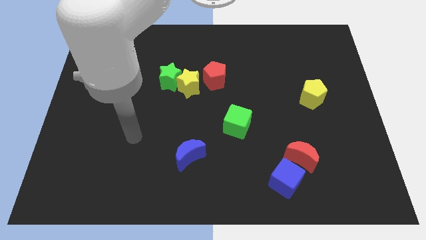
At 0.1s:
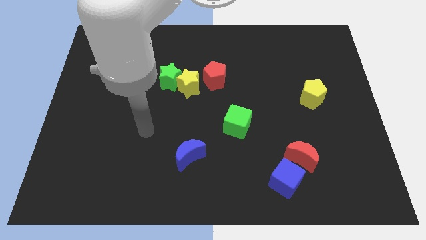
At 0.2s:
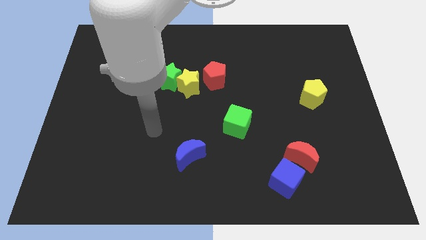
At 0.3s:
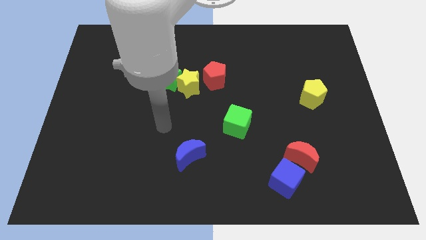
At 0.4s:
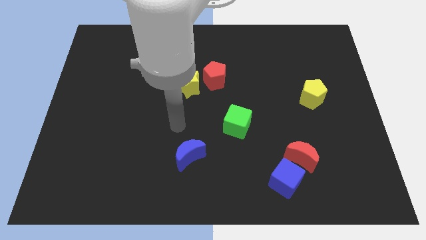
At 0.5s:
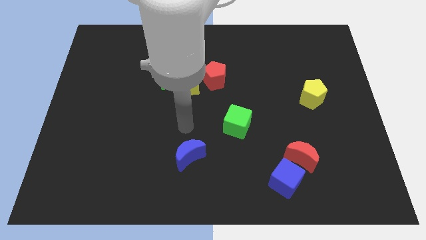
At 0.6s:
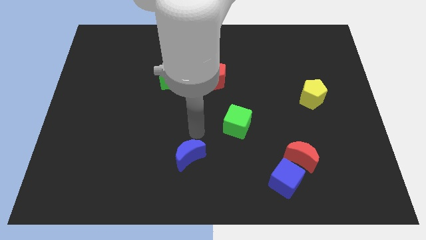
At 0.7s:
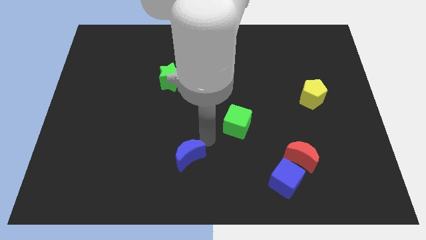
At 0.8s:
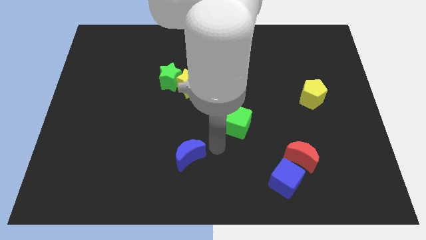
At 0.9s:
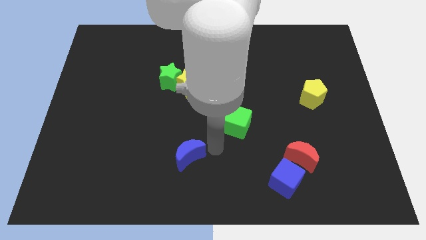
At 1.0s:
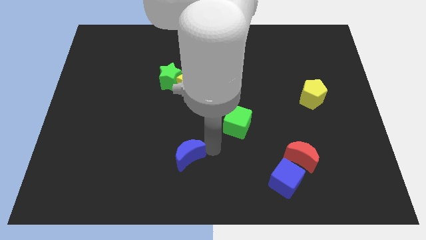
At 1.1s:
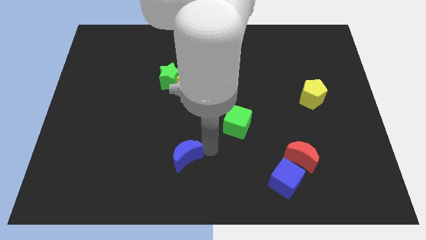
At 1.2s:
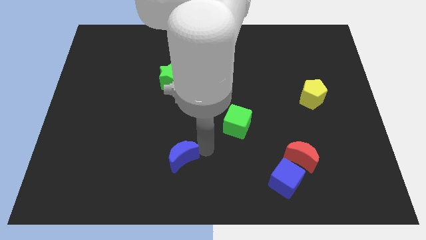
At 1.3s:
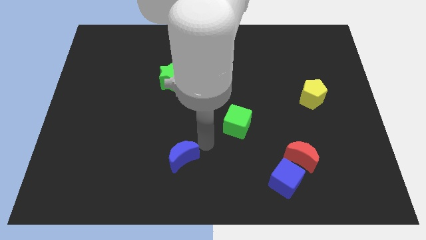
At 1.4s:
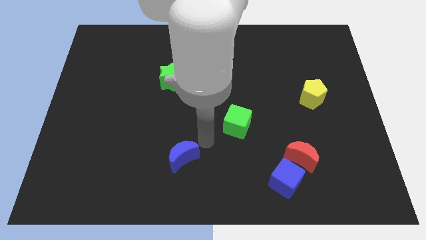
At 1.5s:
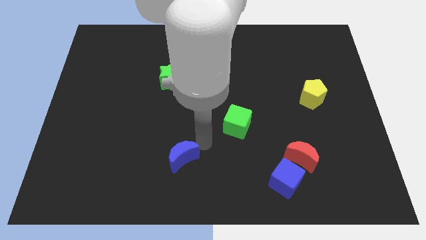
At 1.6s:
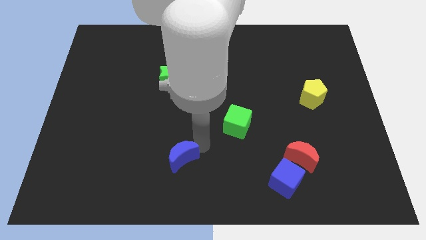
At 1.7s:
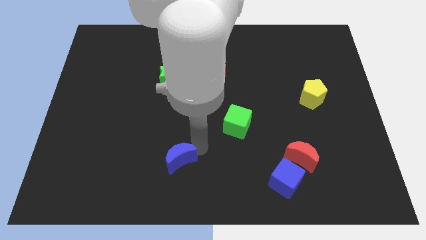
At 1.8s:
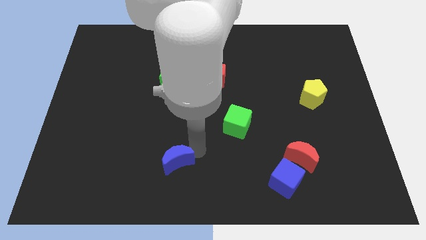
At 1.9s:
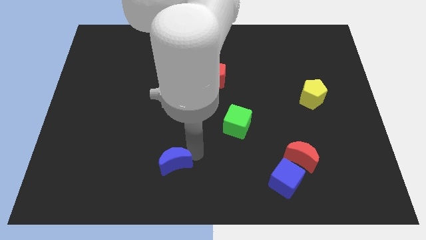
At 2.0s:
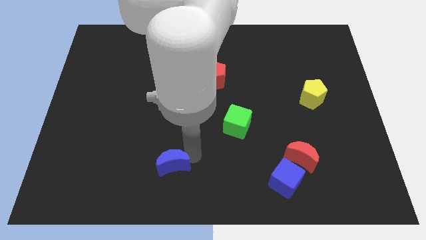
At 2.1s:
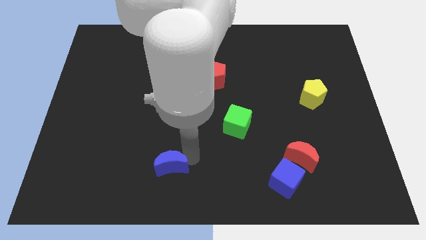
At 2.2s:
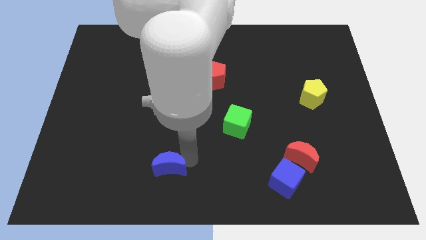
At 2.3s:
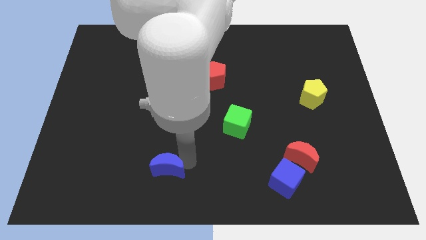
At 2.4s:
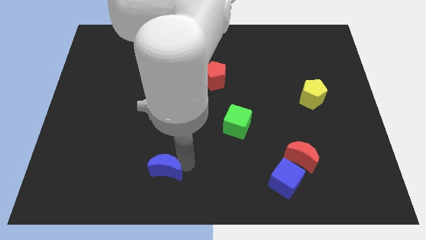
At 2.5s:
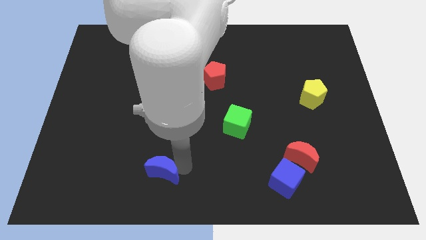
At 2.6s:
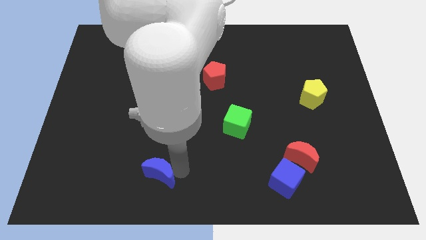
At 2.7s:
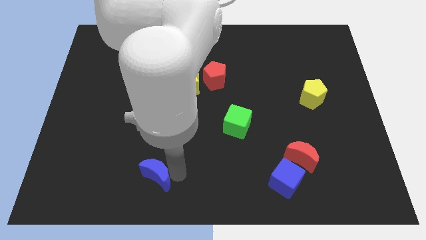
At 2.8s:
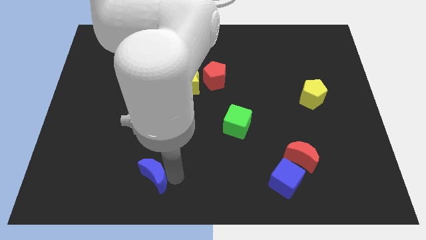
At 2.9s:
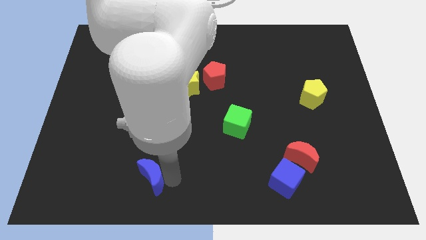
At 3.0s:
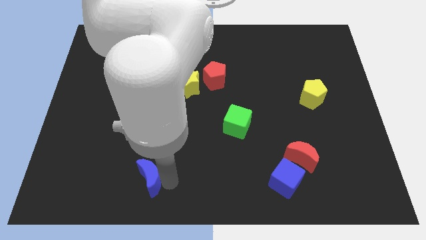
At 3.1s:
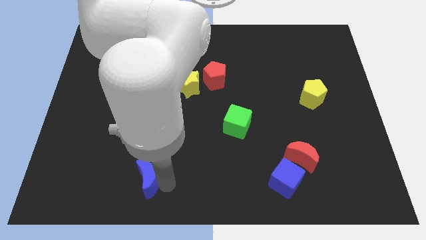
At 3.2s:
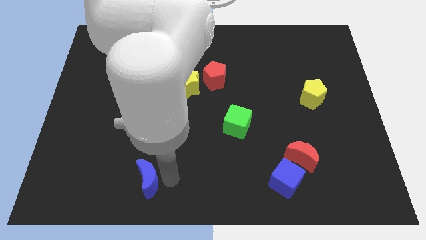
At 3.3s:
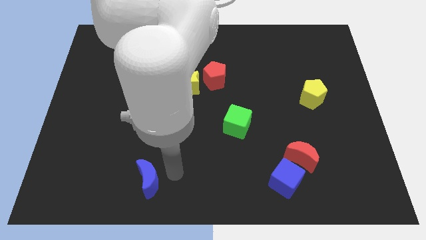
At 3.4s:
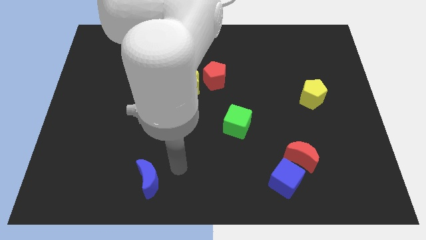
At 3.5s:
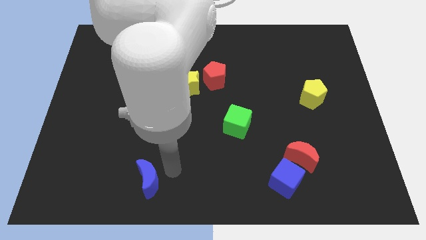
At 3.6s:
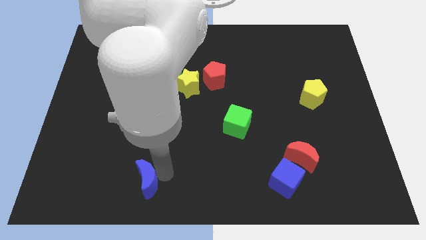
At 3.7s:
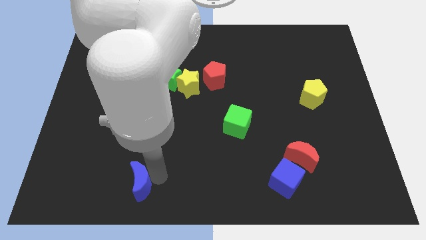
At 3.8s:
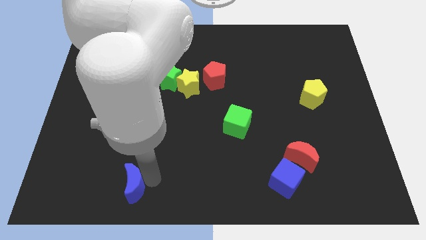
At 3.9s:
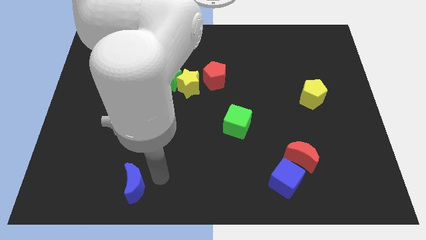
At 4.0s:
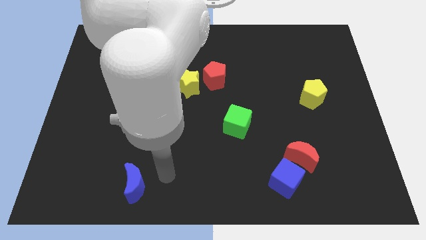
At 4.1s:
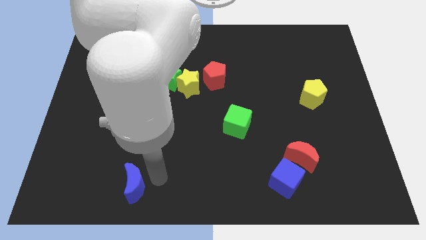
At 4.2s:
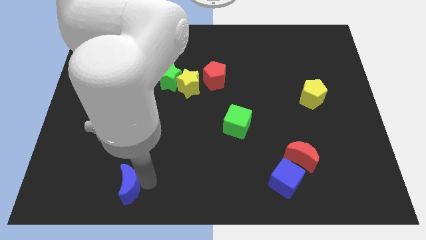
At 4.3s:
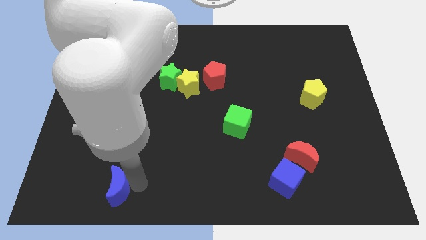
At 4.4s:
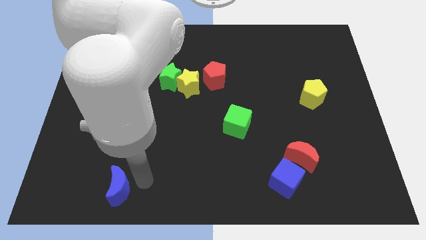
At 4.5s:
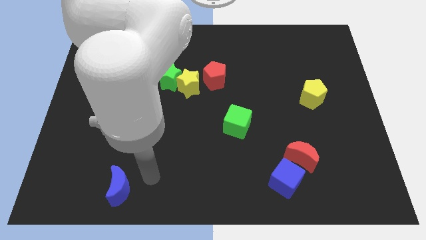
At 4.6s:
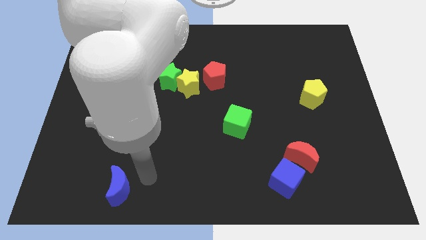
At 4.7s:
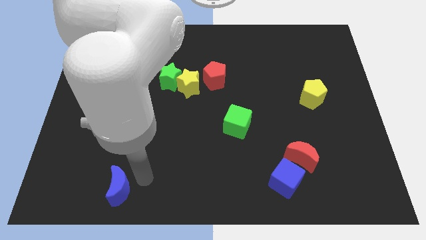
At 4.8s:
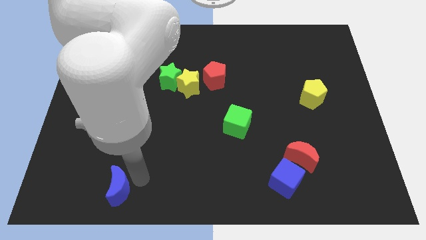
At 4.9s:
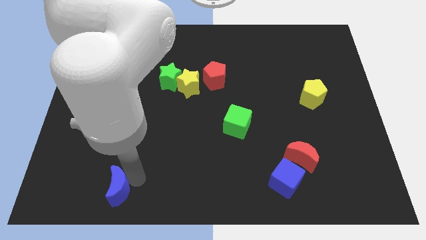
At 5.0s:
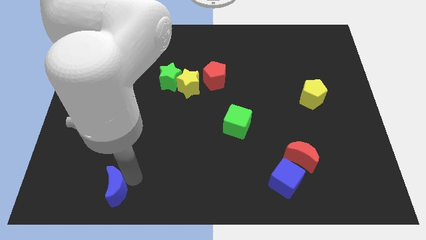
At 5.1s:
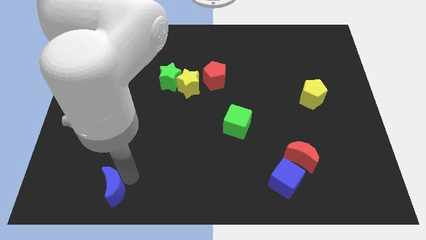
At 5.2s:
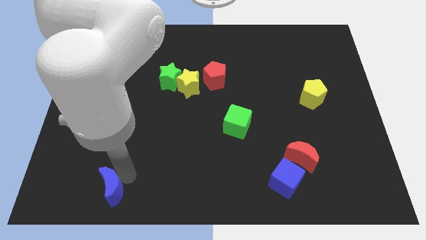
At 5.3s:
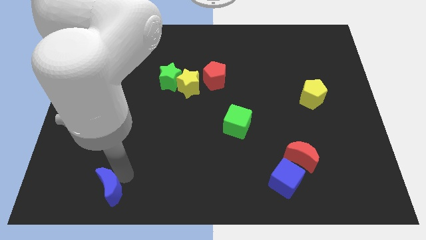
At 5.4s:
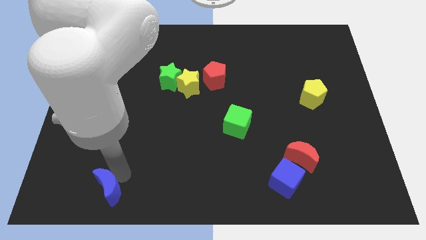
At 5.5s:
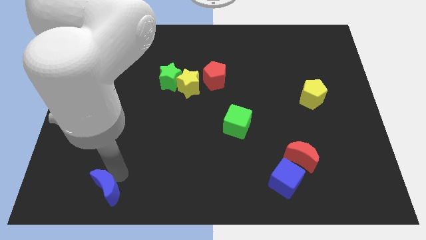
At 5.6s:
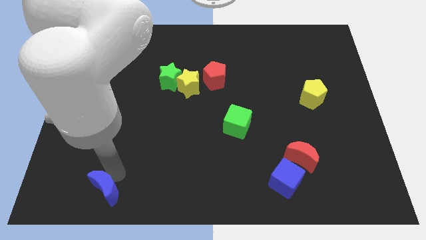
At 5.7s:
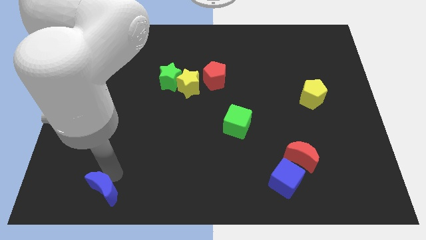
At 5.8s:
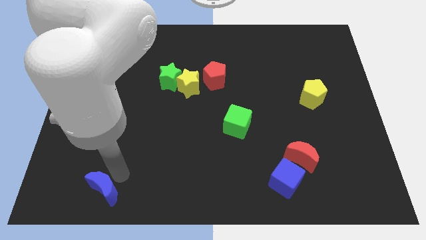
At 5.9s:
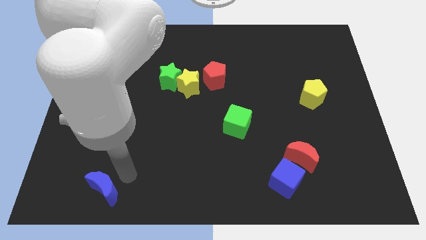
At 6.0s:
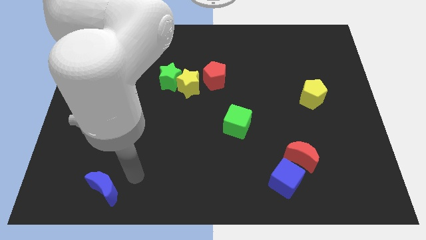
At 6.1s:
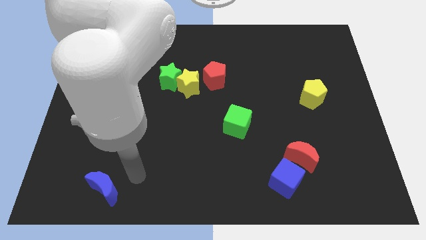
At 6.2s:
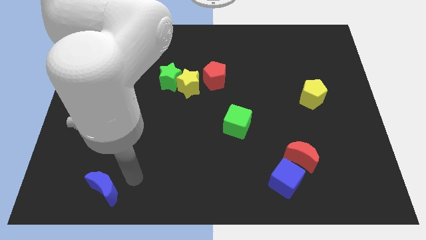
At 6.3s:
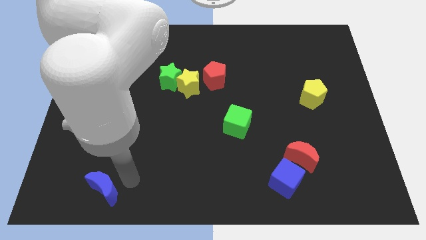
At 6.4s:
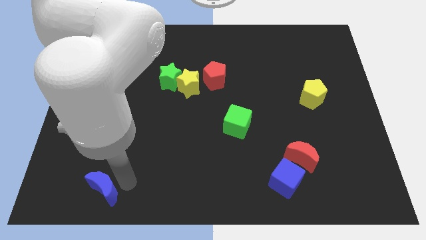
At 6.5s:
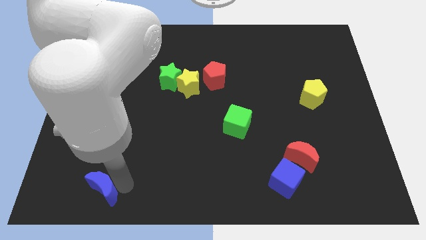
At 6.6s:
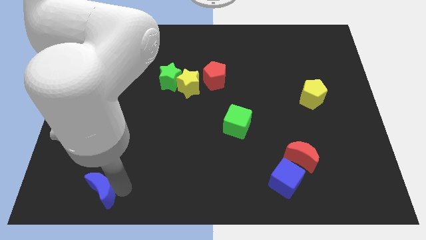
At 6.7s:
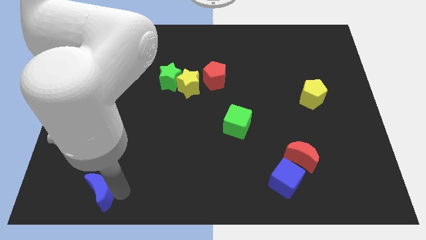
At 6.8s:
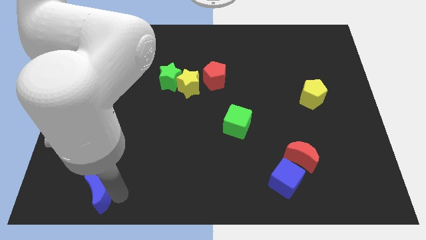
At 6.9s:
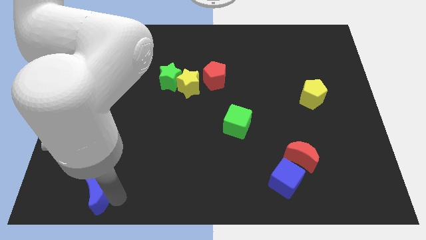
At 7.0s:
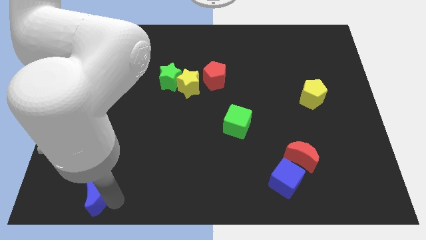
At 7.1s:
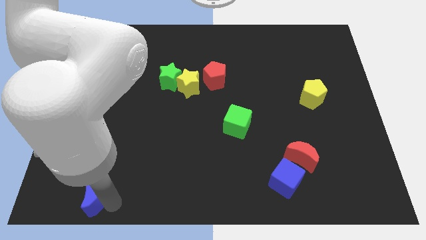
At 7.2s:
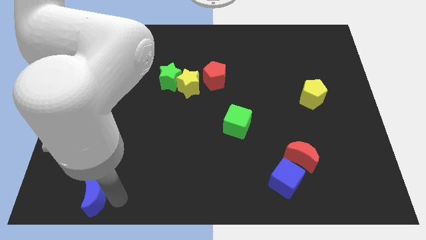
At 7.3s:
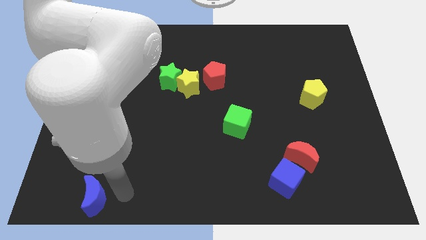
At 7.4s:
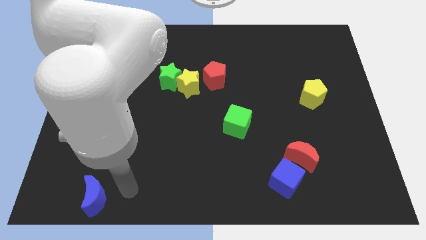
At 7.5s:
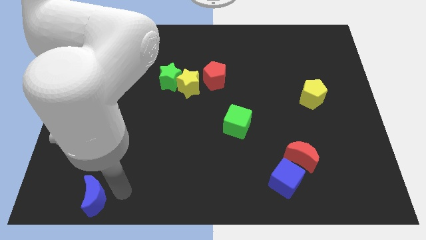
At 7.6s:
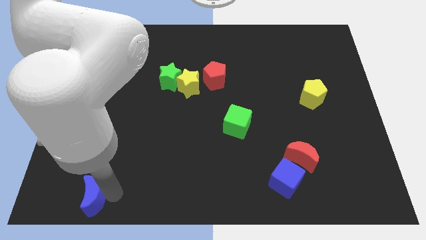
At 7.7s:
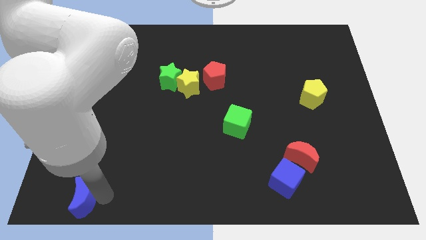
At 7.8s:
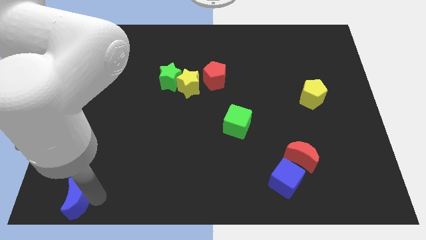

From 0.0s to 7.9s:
put the blue moon to the bottom left of the board
